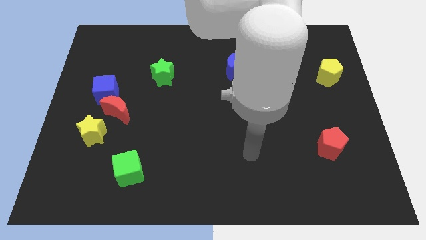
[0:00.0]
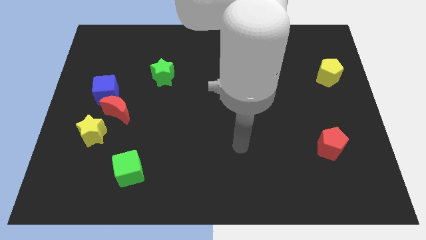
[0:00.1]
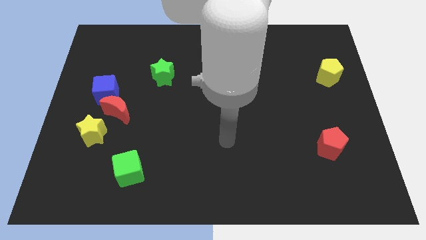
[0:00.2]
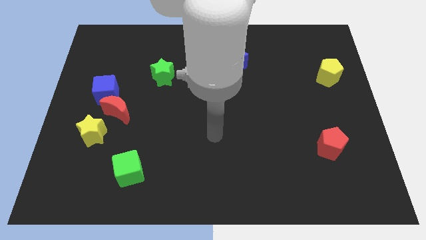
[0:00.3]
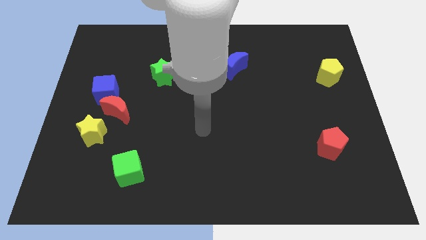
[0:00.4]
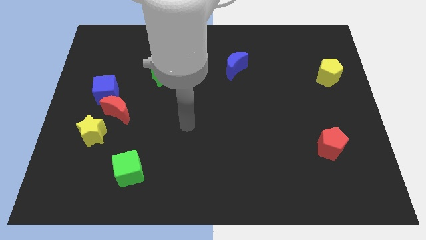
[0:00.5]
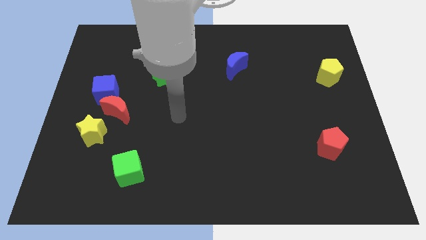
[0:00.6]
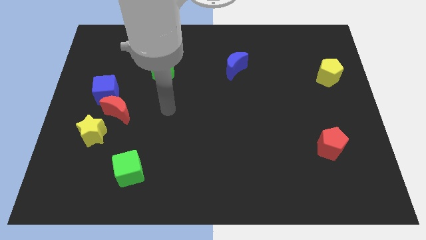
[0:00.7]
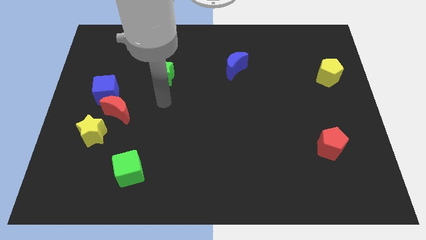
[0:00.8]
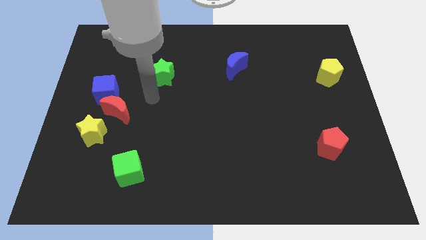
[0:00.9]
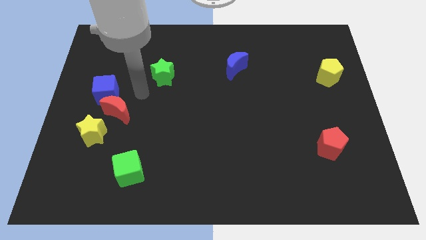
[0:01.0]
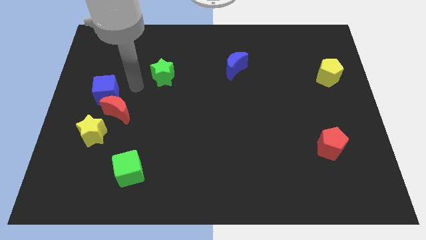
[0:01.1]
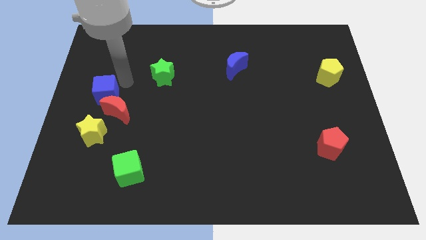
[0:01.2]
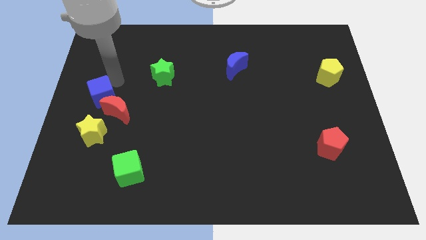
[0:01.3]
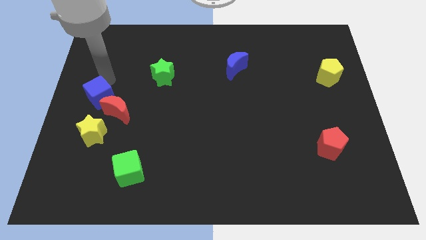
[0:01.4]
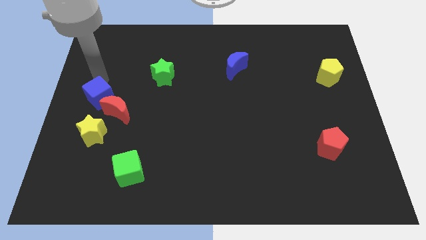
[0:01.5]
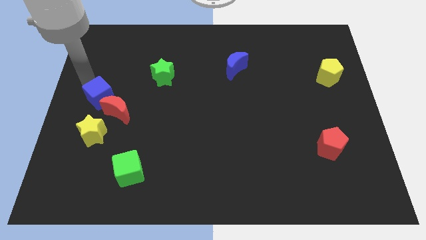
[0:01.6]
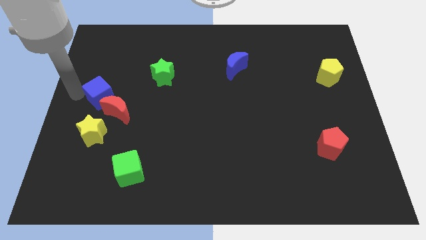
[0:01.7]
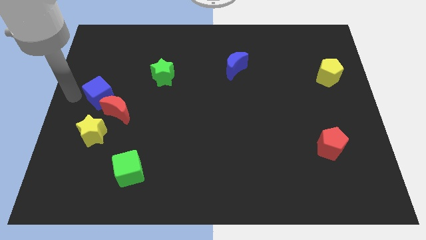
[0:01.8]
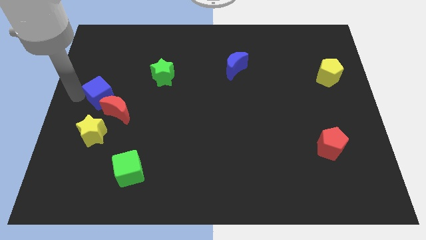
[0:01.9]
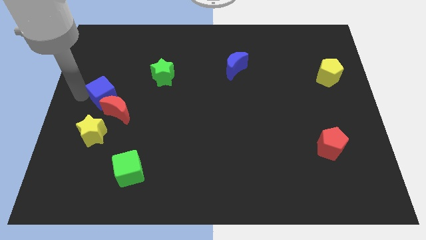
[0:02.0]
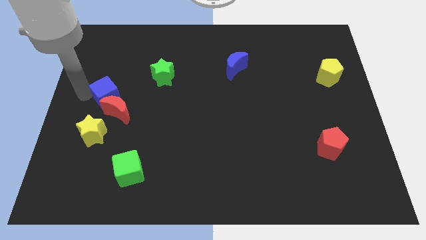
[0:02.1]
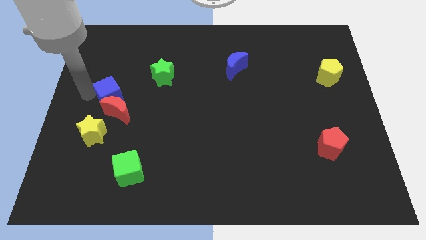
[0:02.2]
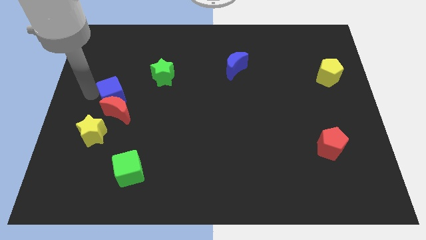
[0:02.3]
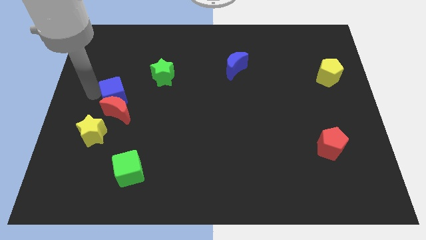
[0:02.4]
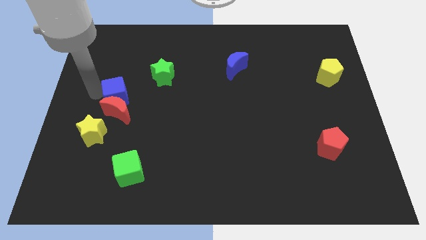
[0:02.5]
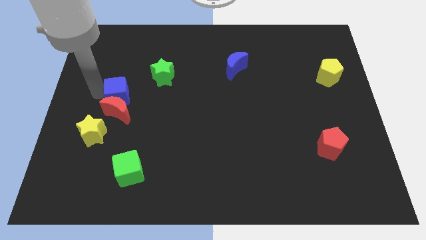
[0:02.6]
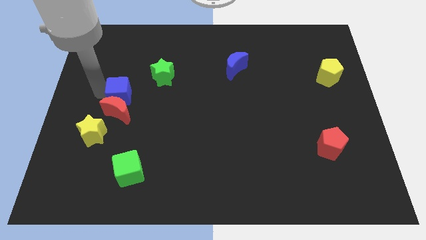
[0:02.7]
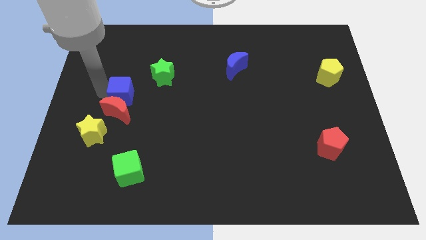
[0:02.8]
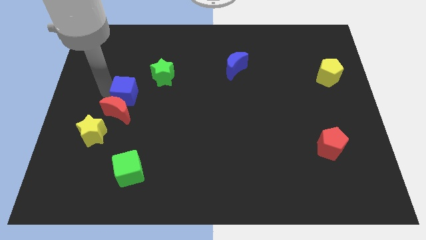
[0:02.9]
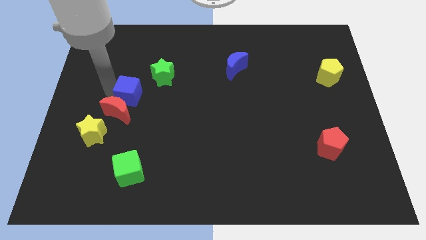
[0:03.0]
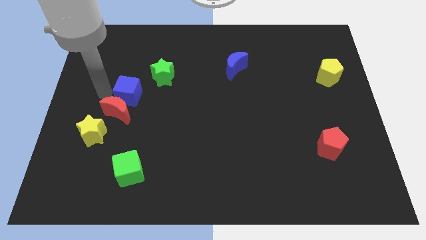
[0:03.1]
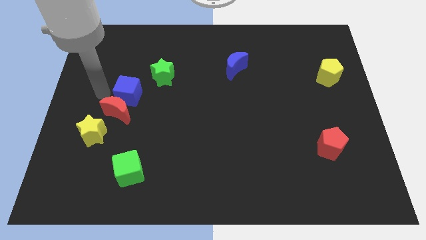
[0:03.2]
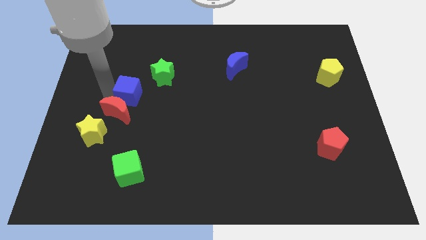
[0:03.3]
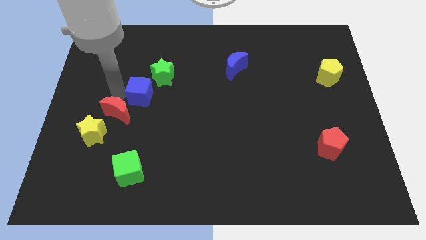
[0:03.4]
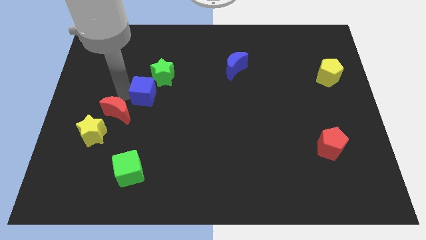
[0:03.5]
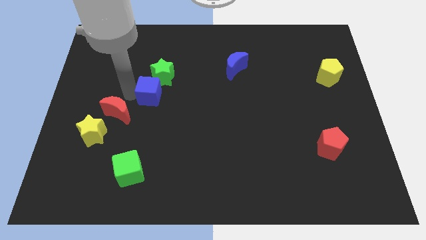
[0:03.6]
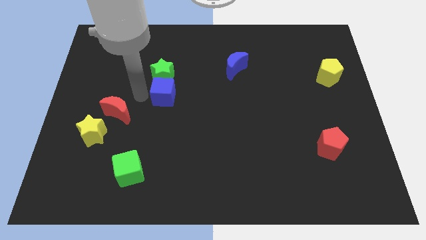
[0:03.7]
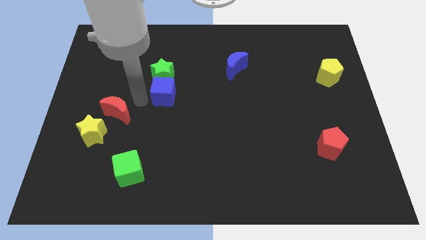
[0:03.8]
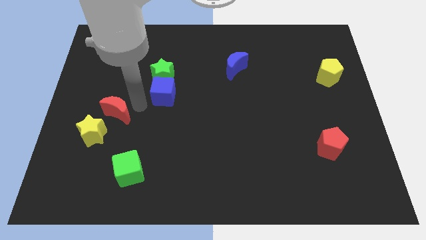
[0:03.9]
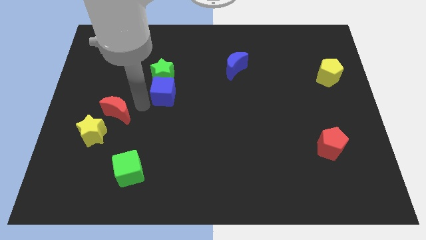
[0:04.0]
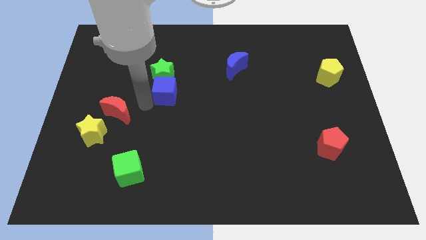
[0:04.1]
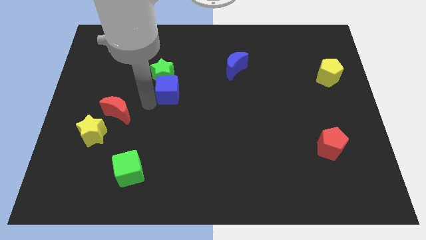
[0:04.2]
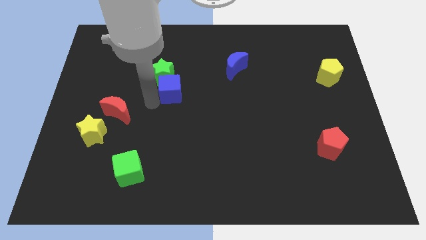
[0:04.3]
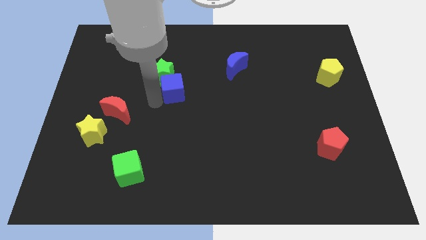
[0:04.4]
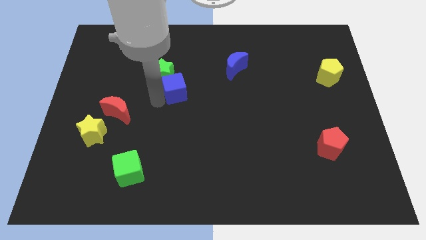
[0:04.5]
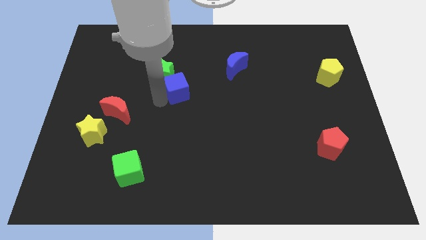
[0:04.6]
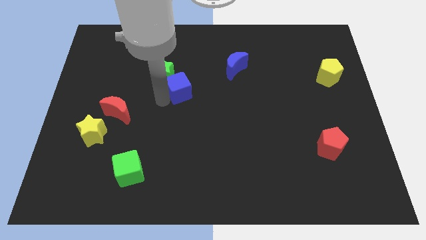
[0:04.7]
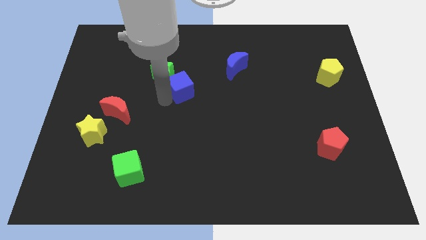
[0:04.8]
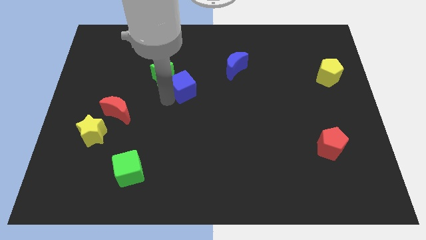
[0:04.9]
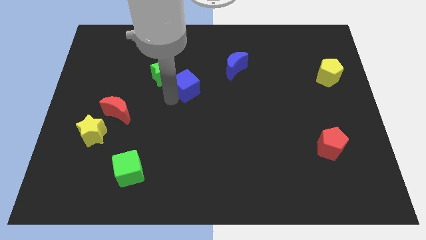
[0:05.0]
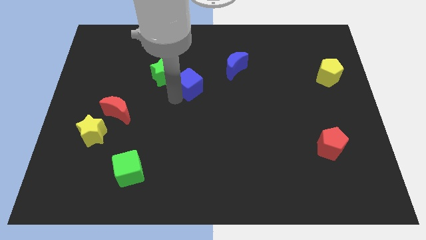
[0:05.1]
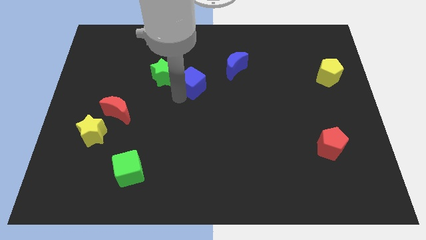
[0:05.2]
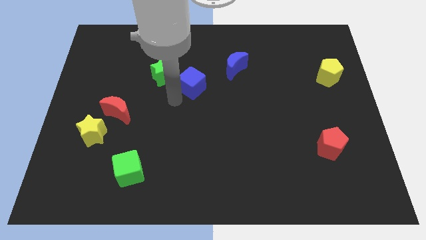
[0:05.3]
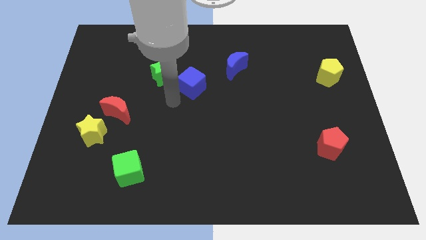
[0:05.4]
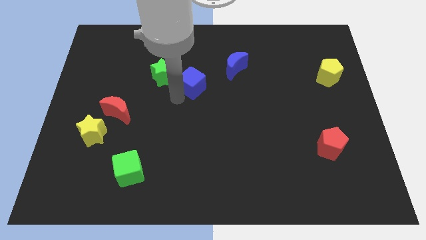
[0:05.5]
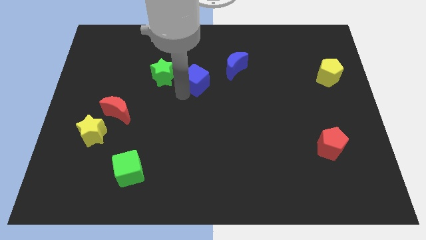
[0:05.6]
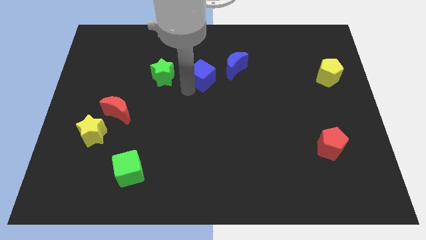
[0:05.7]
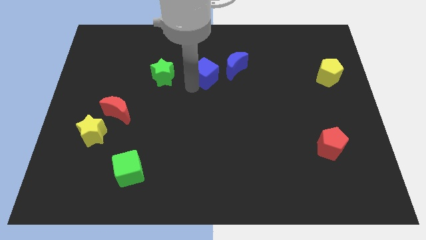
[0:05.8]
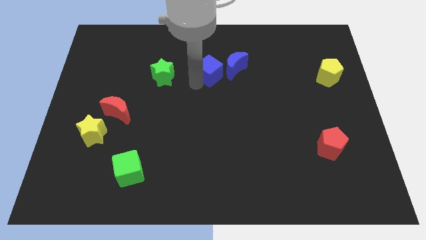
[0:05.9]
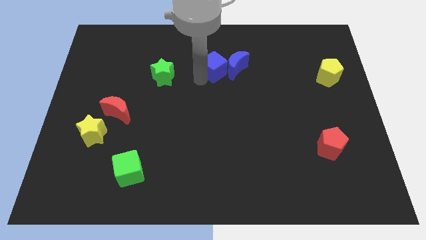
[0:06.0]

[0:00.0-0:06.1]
push the blue cube close to the blue moon

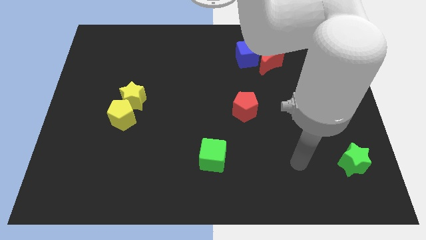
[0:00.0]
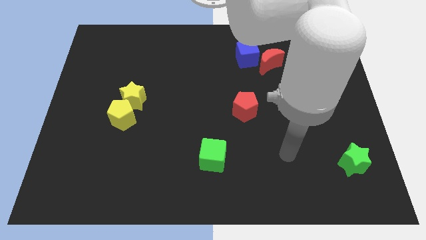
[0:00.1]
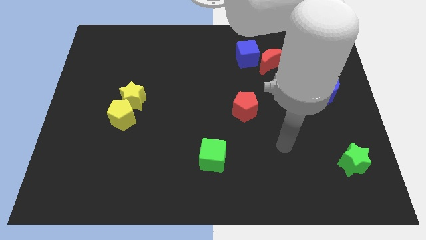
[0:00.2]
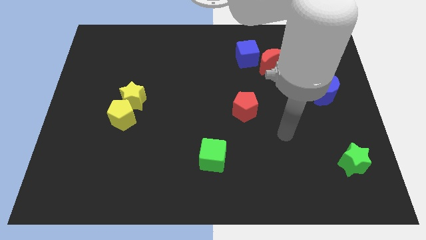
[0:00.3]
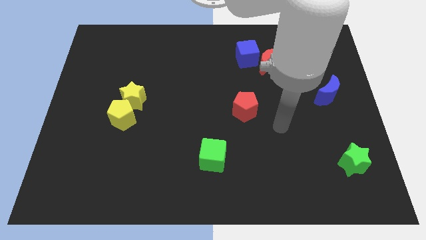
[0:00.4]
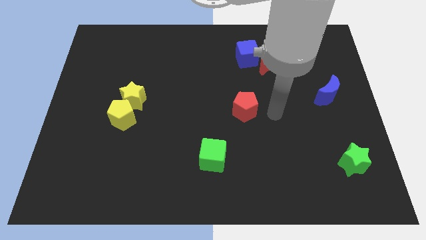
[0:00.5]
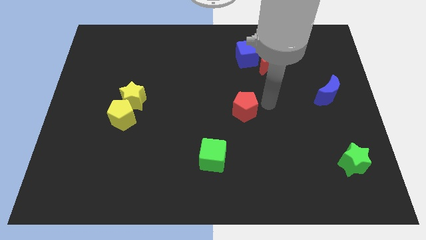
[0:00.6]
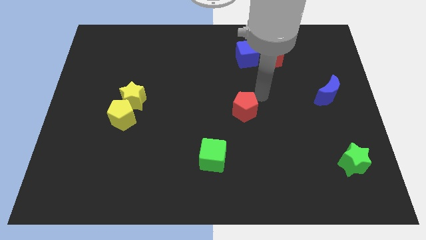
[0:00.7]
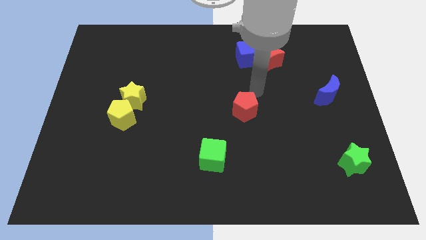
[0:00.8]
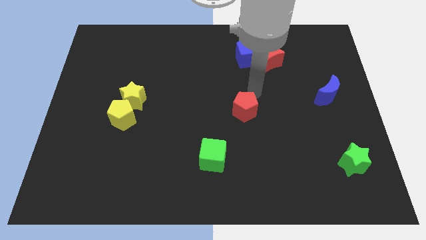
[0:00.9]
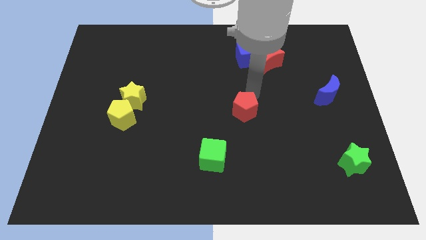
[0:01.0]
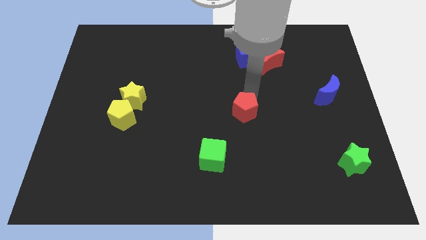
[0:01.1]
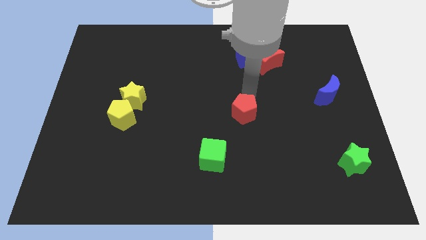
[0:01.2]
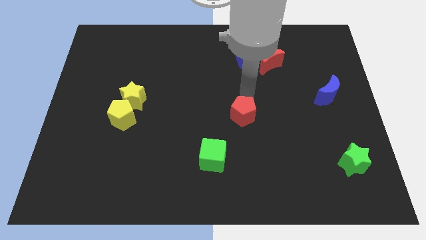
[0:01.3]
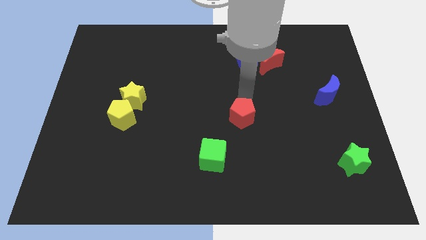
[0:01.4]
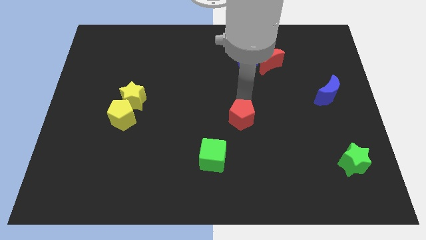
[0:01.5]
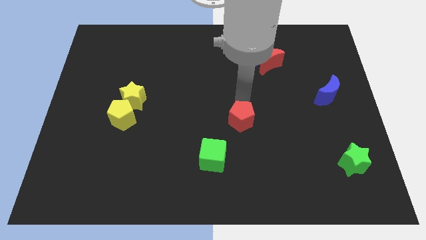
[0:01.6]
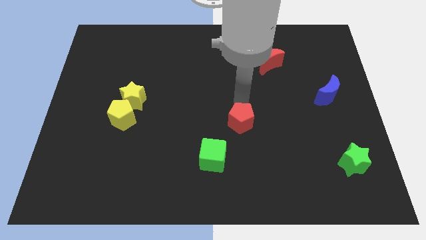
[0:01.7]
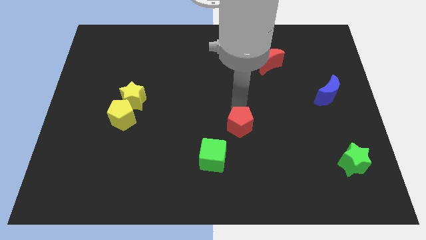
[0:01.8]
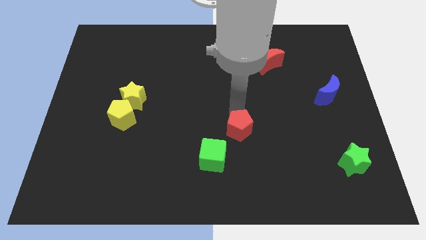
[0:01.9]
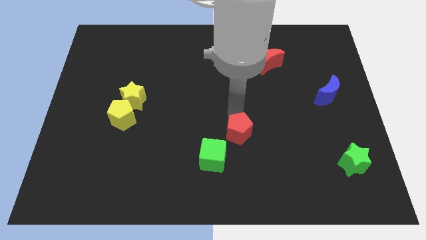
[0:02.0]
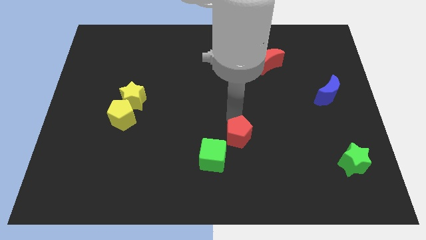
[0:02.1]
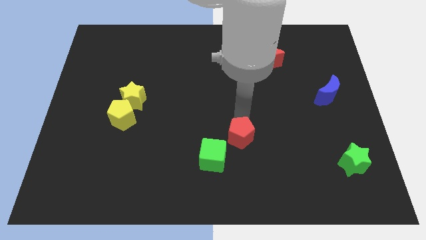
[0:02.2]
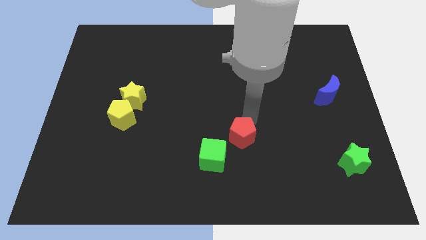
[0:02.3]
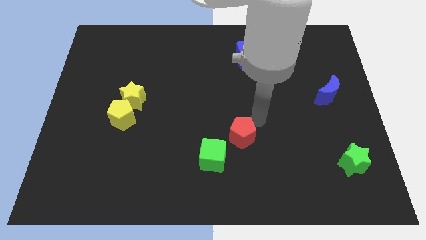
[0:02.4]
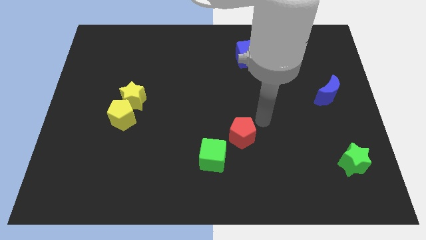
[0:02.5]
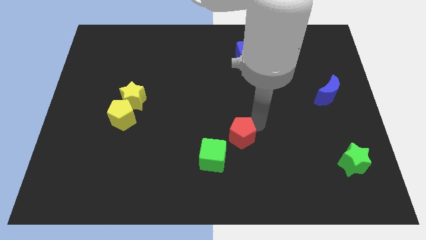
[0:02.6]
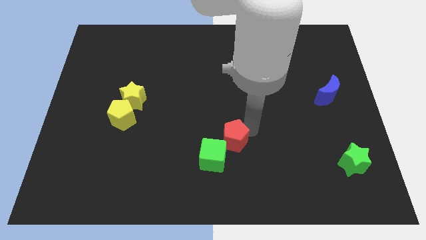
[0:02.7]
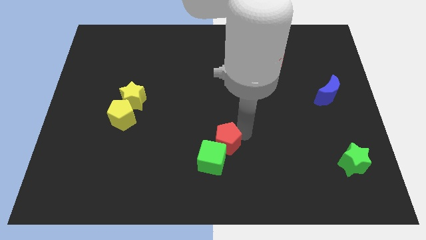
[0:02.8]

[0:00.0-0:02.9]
move the red pentagon close to the green cube
